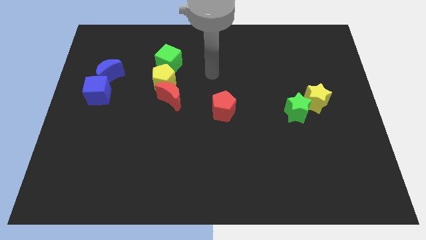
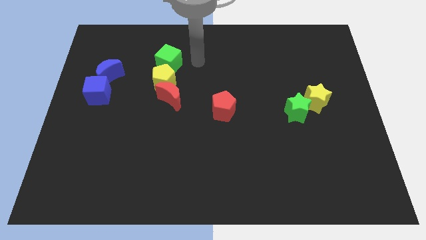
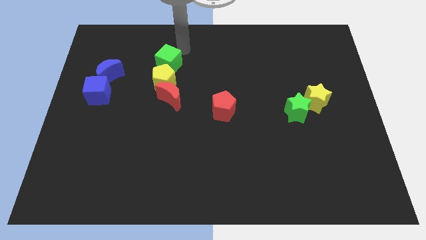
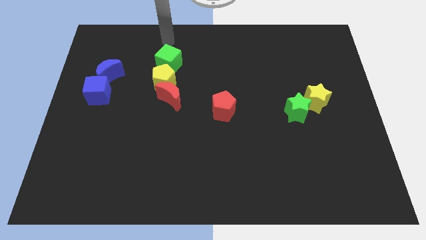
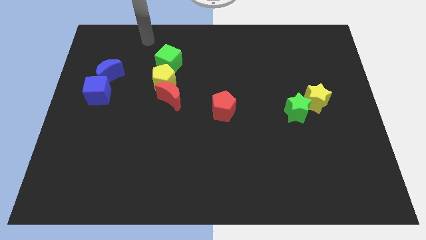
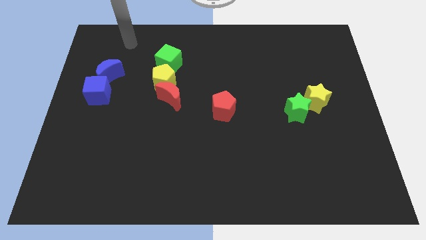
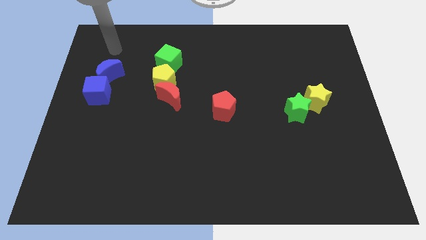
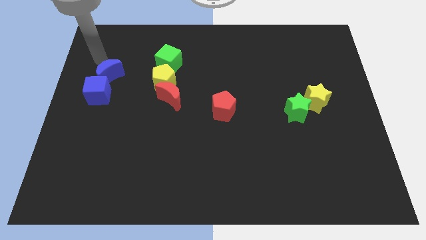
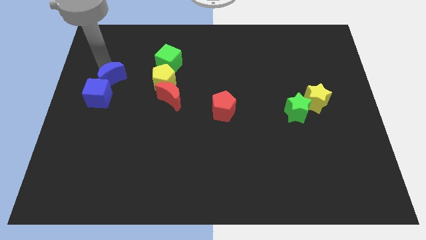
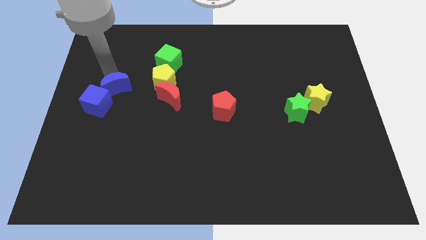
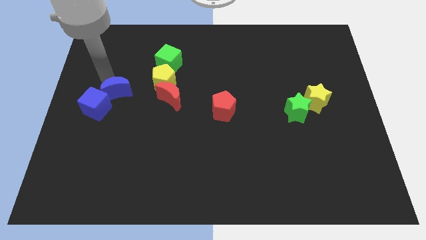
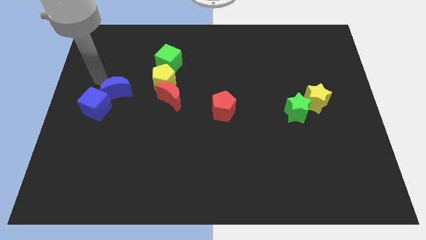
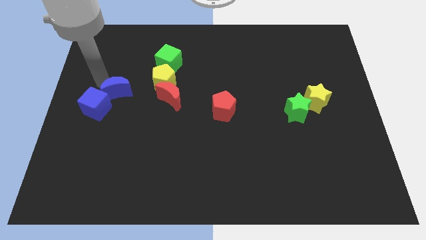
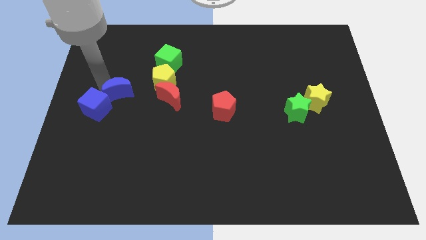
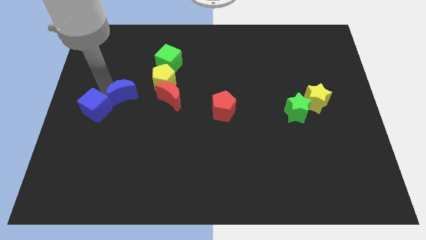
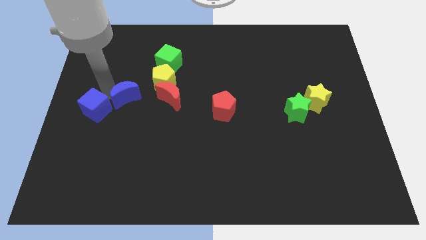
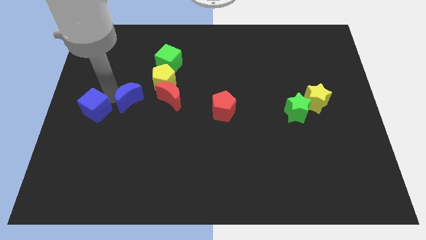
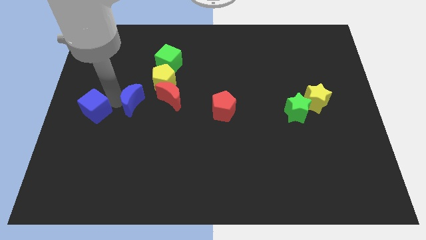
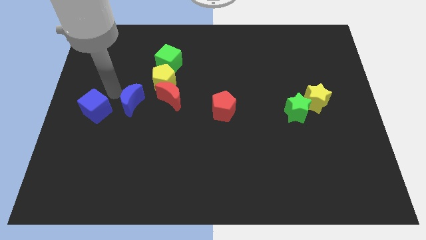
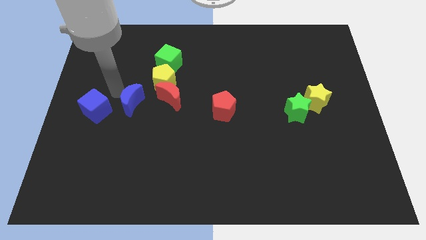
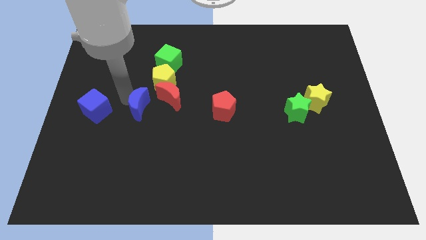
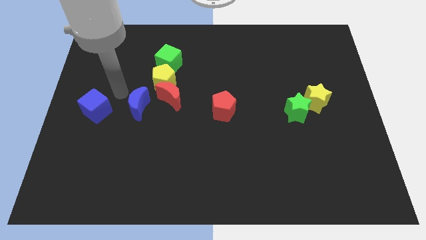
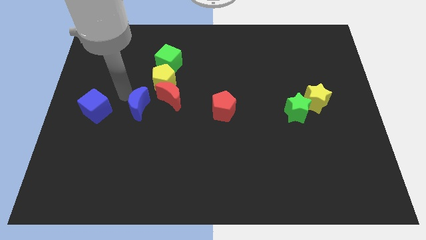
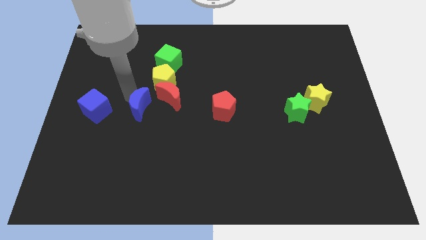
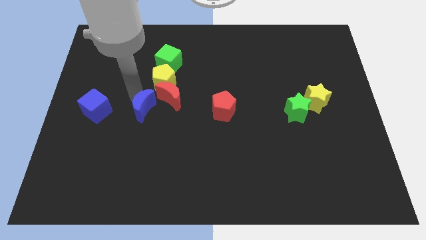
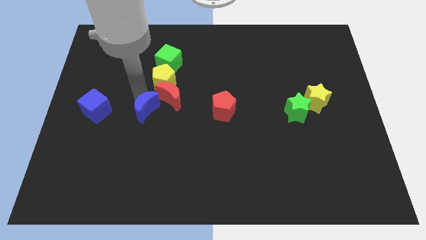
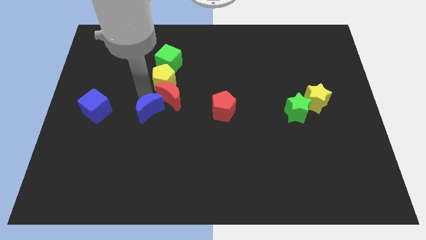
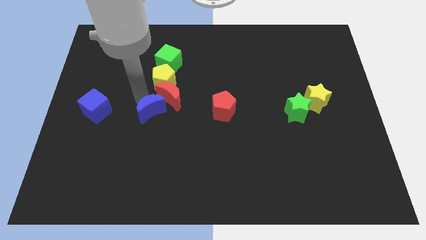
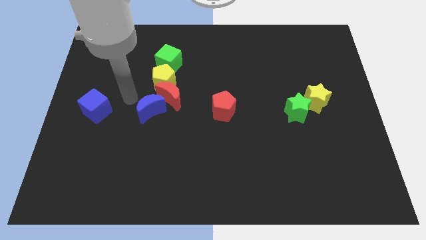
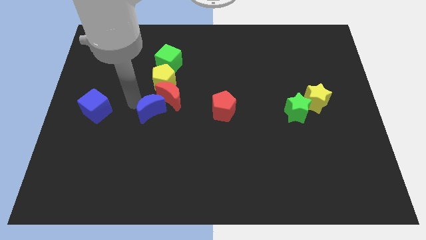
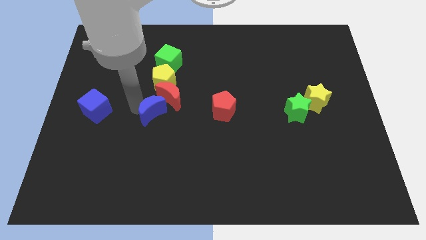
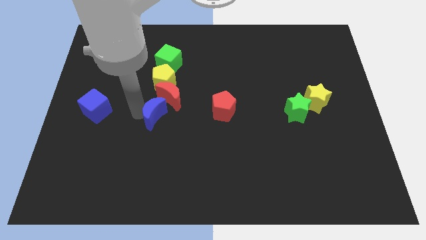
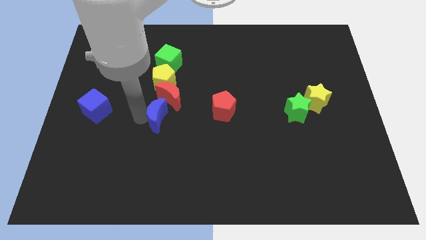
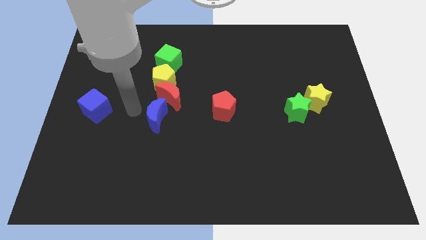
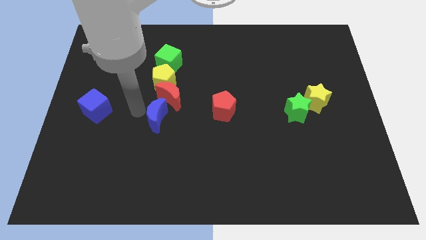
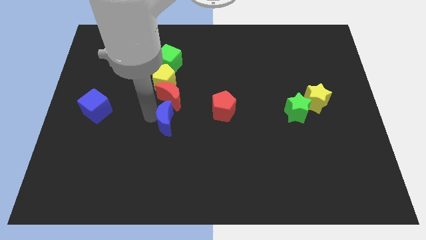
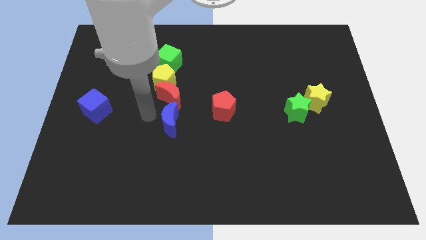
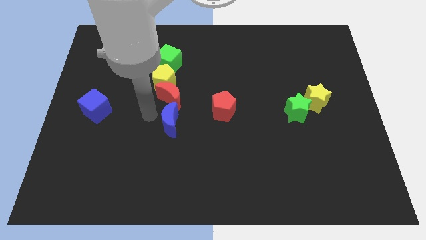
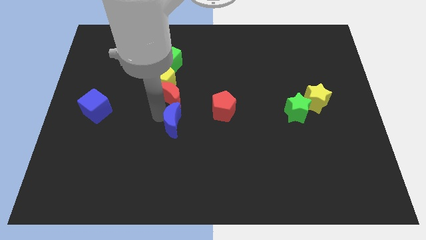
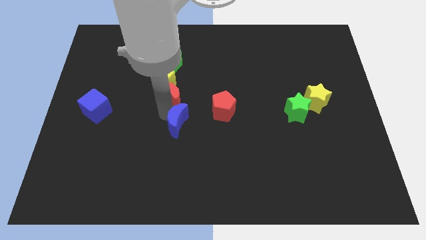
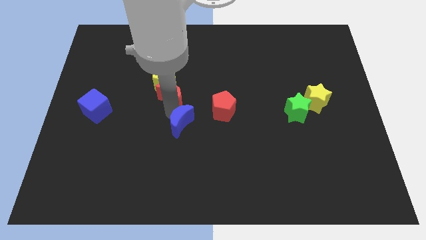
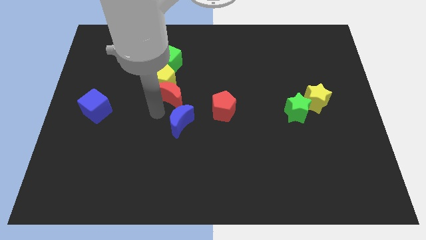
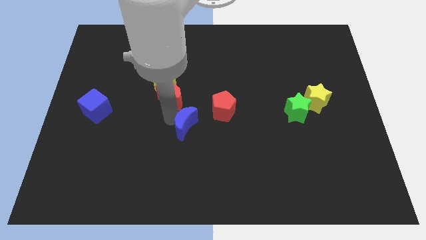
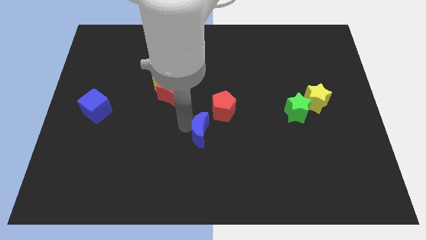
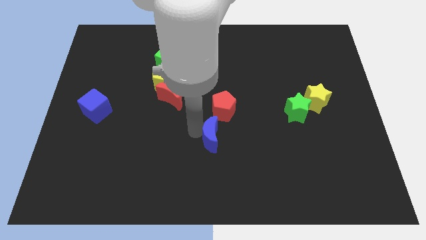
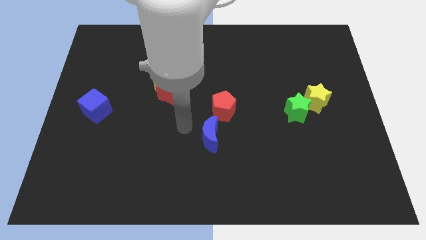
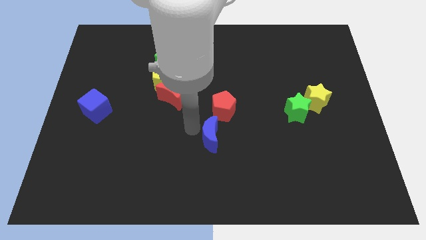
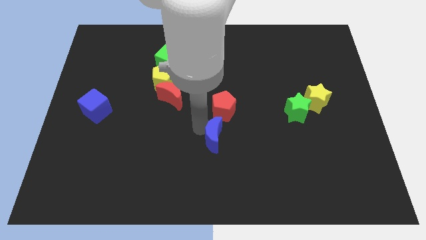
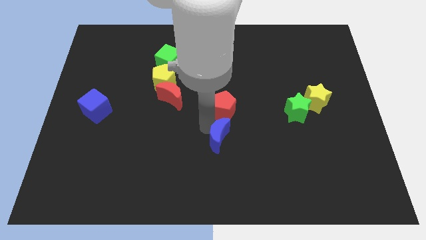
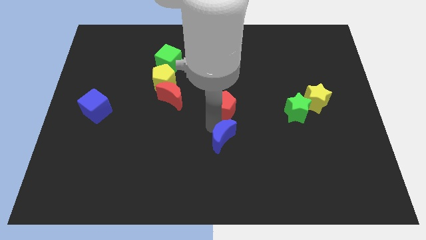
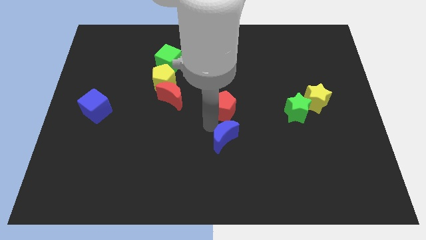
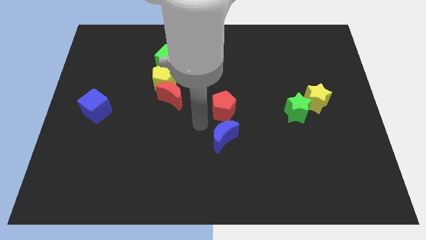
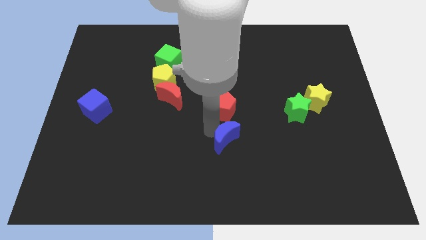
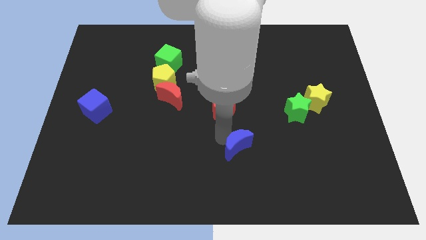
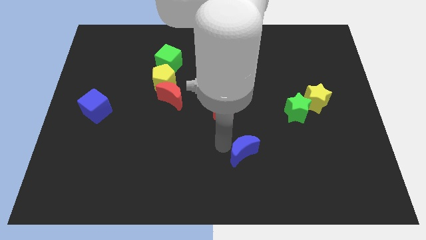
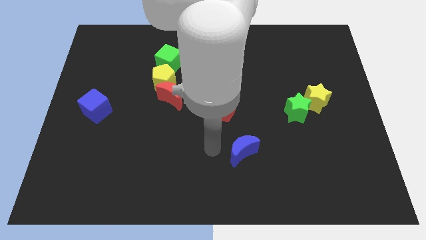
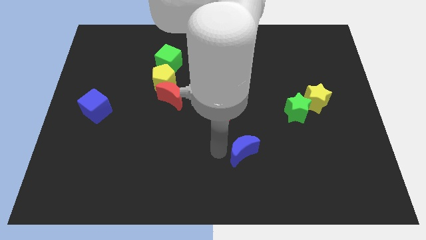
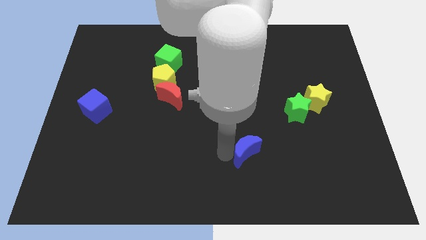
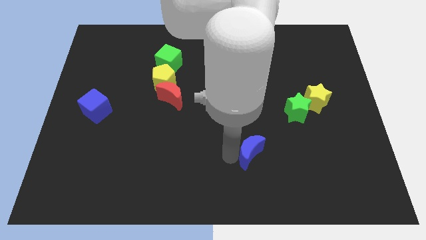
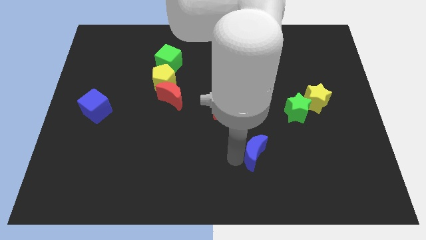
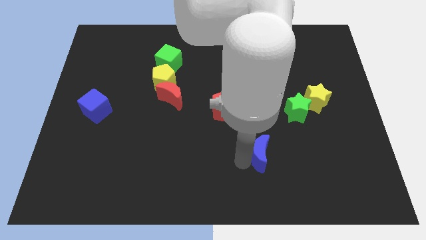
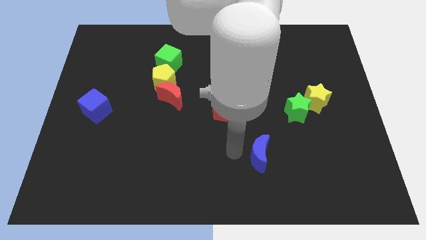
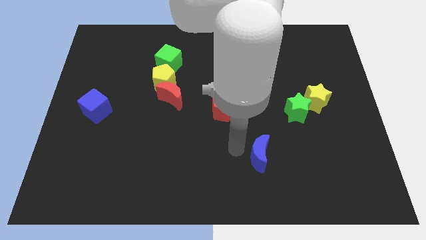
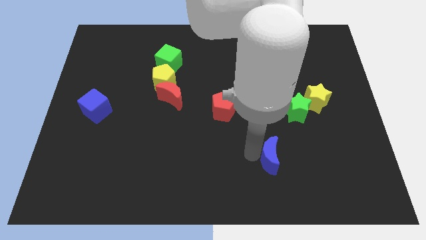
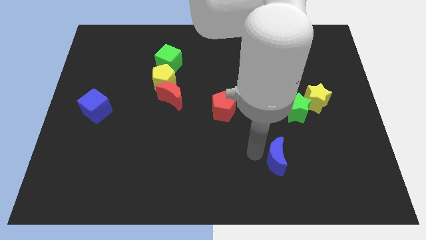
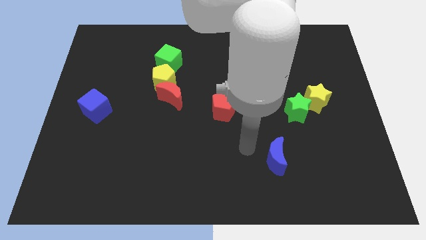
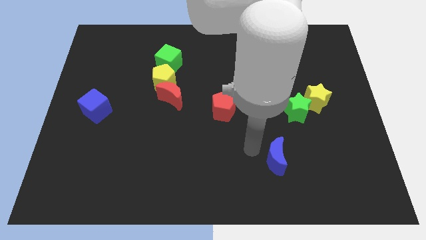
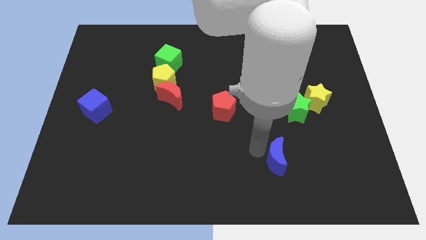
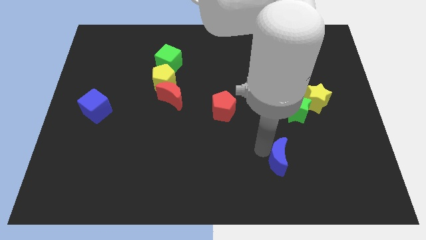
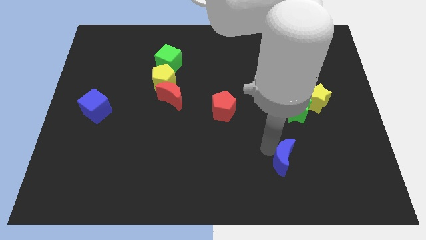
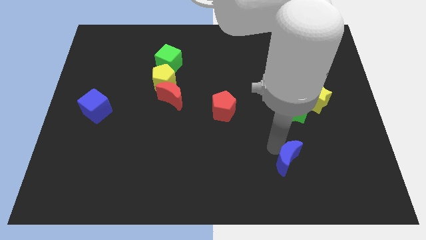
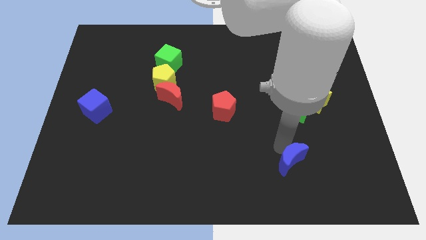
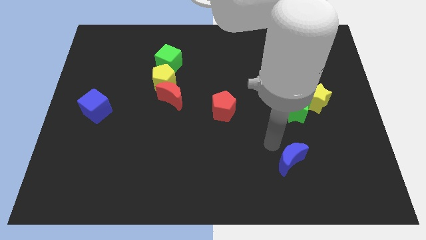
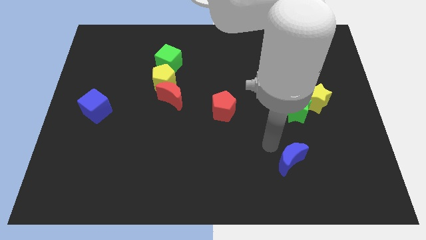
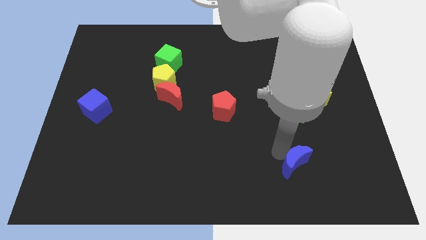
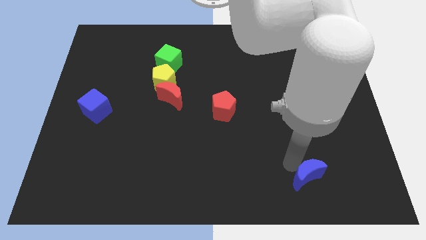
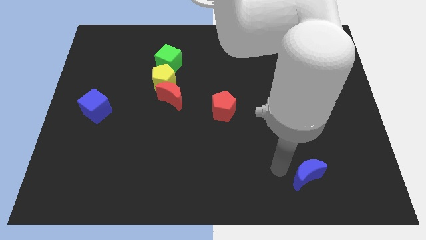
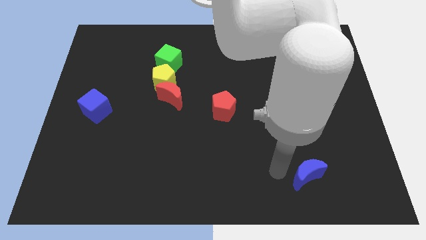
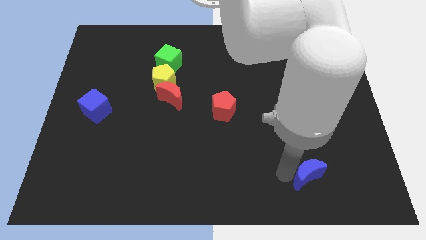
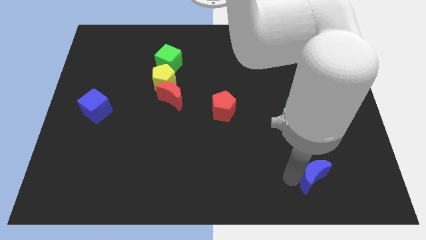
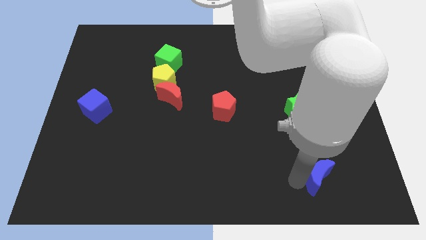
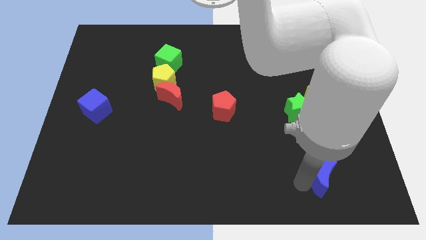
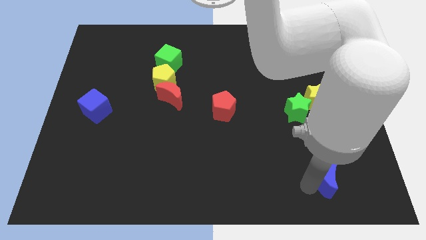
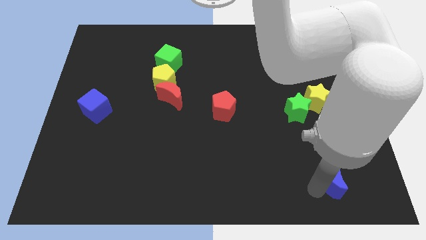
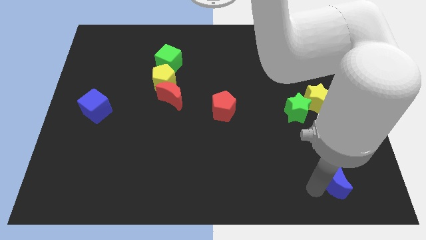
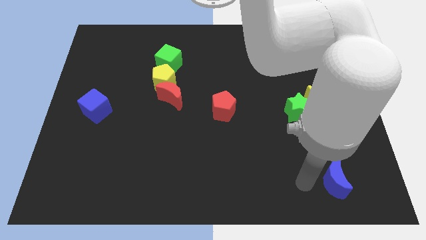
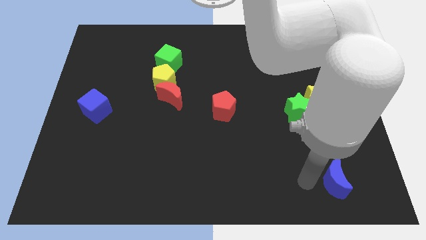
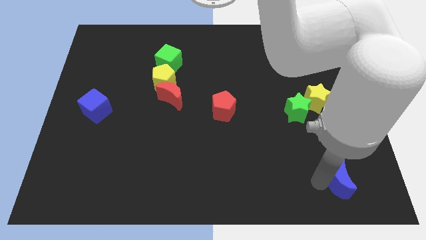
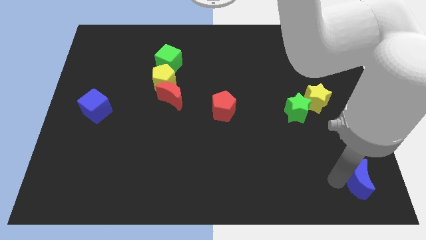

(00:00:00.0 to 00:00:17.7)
push the blue moon to the bottom right of the board
